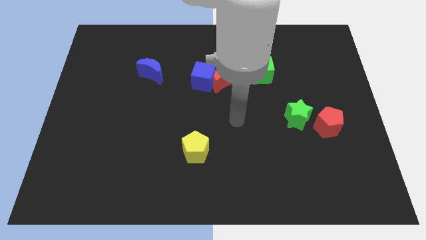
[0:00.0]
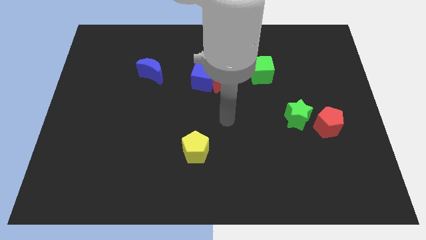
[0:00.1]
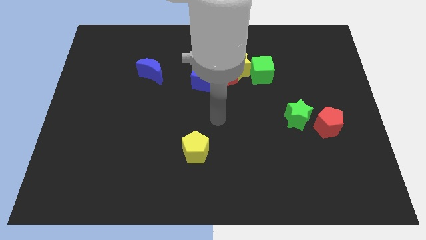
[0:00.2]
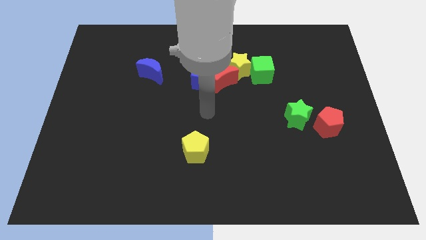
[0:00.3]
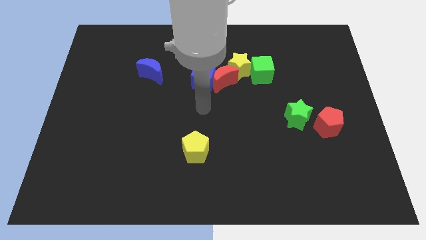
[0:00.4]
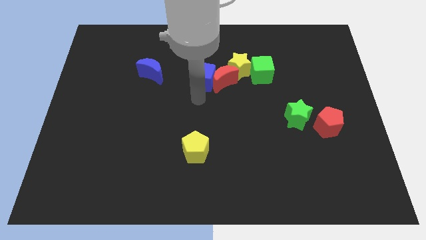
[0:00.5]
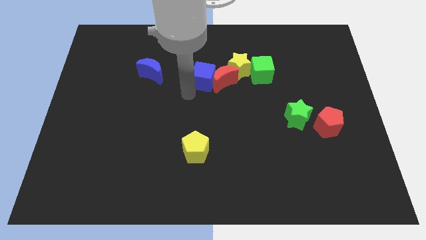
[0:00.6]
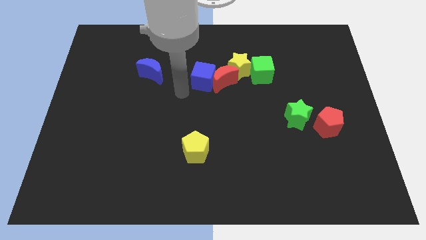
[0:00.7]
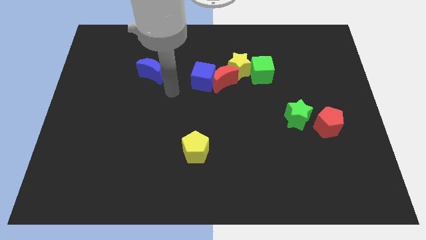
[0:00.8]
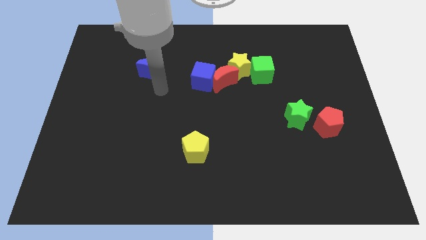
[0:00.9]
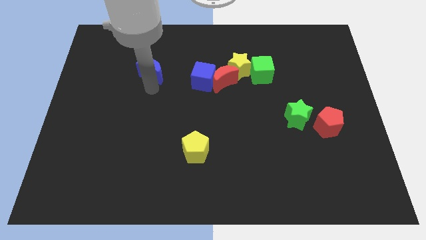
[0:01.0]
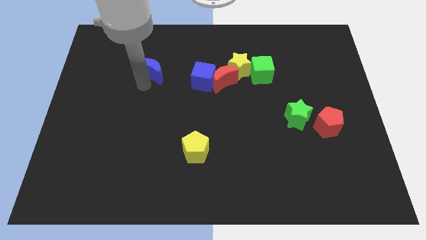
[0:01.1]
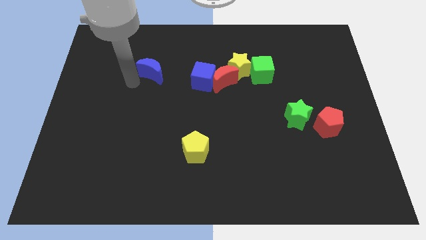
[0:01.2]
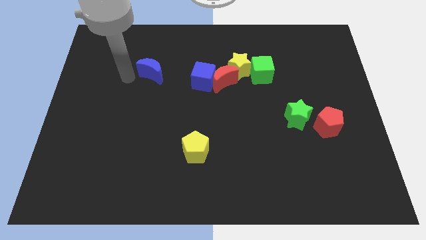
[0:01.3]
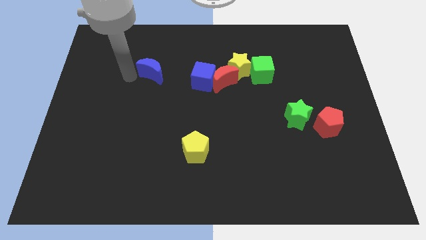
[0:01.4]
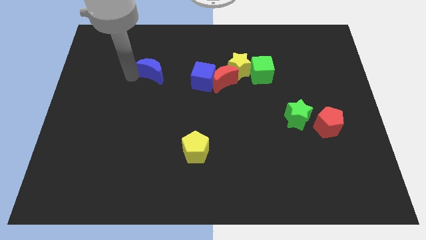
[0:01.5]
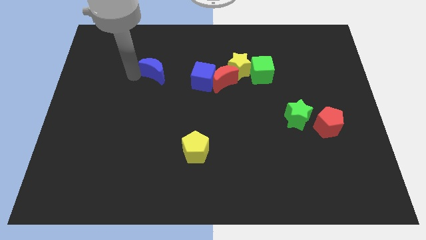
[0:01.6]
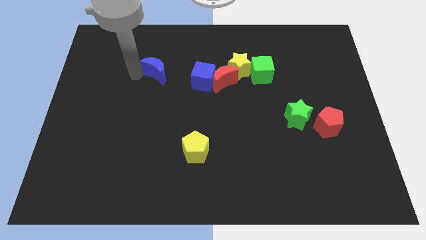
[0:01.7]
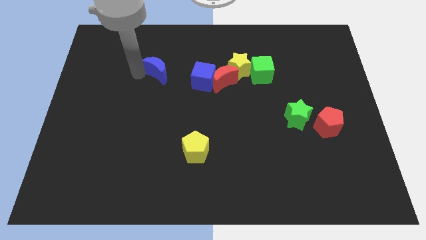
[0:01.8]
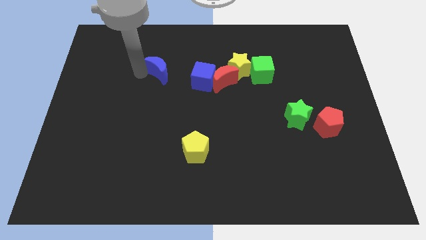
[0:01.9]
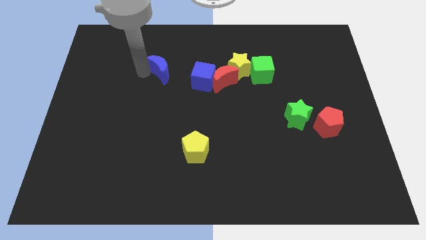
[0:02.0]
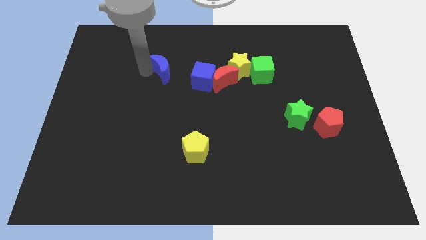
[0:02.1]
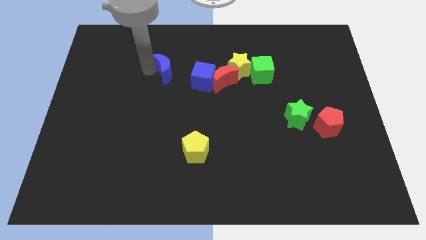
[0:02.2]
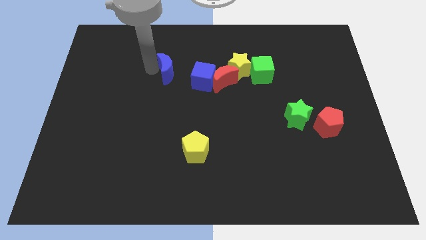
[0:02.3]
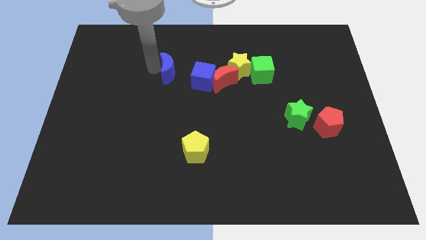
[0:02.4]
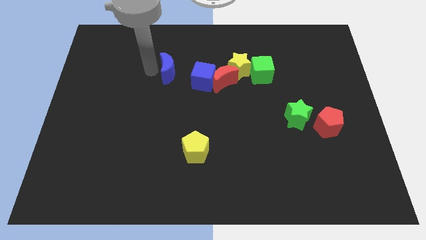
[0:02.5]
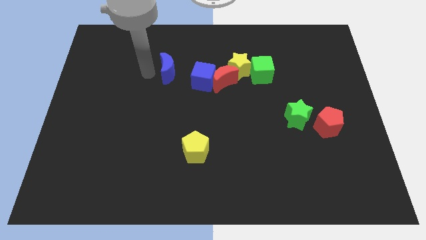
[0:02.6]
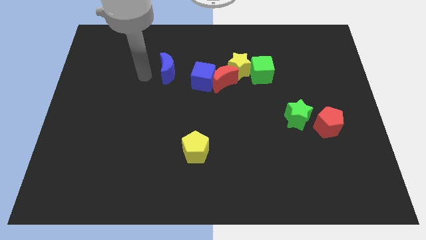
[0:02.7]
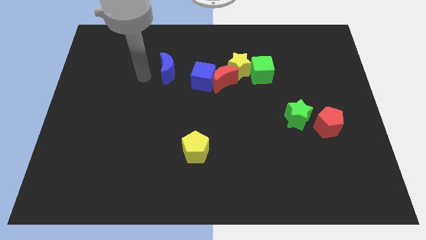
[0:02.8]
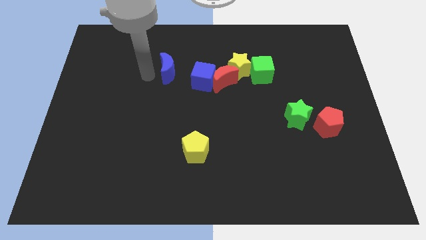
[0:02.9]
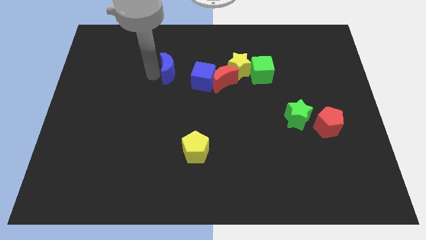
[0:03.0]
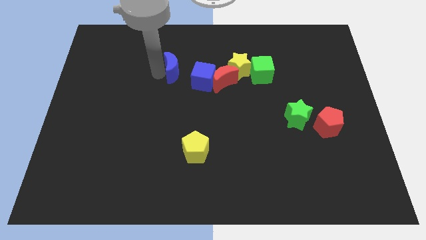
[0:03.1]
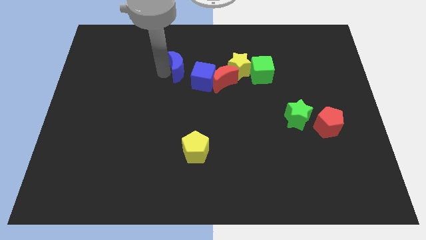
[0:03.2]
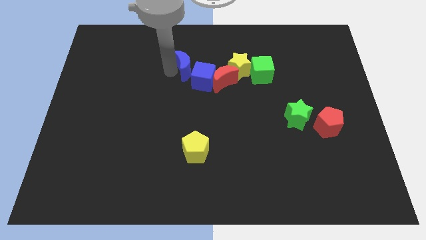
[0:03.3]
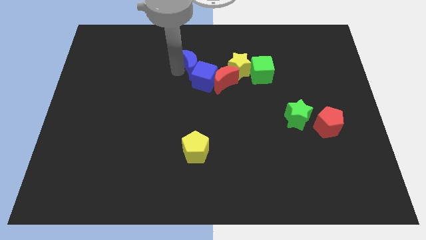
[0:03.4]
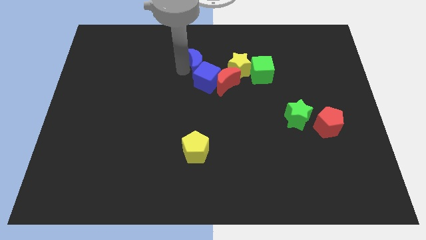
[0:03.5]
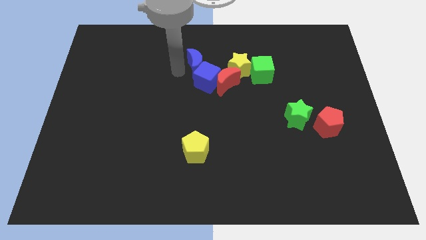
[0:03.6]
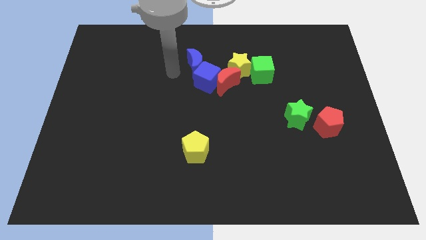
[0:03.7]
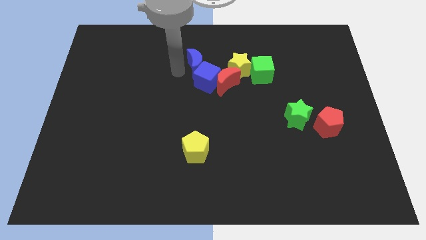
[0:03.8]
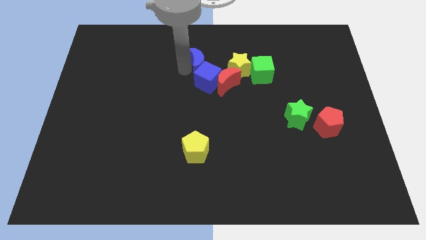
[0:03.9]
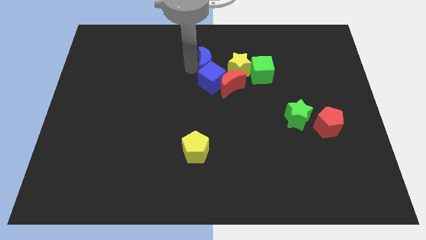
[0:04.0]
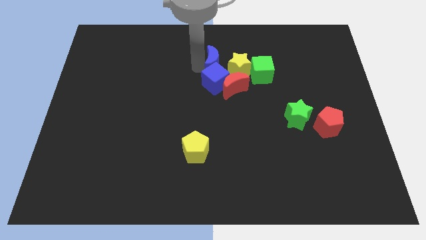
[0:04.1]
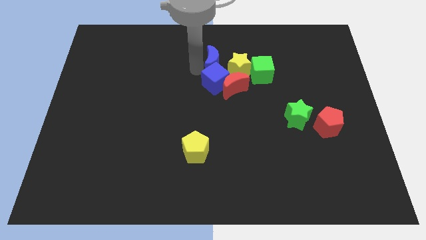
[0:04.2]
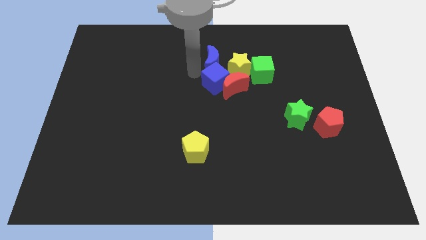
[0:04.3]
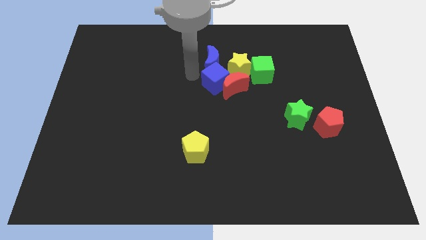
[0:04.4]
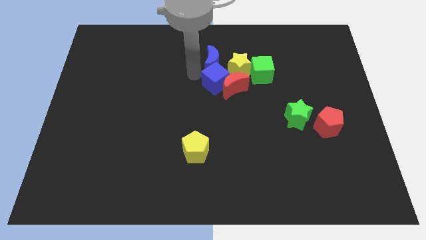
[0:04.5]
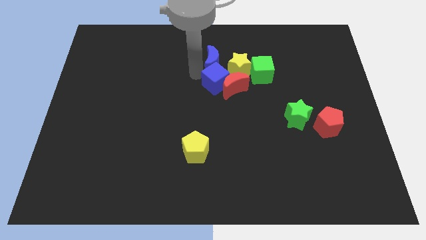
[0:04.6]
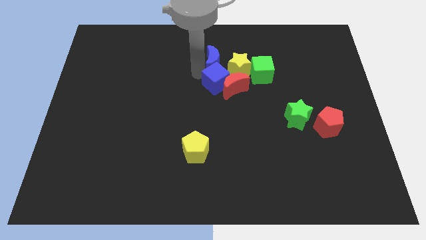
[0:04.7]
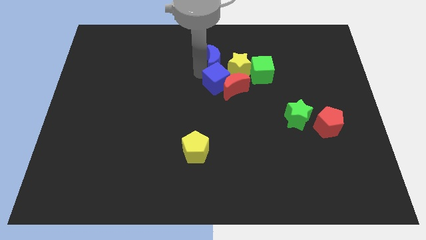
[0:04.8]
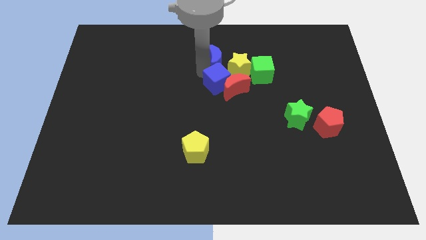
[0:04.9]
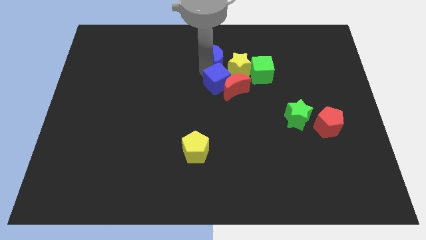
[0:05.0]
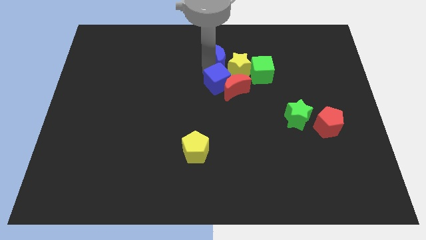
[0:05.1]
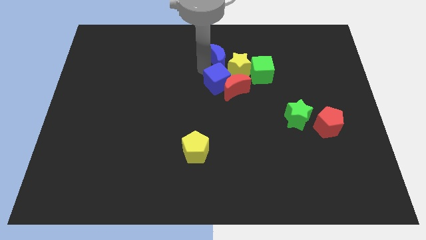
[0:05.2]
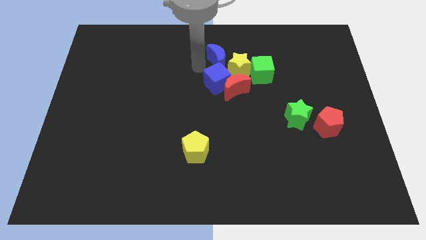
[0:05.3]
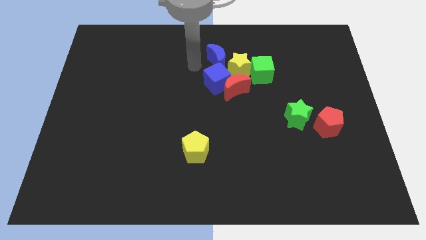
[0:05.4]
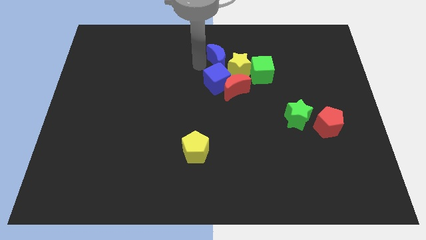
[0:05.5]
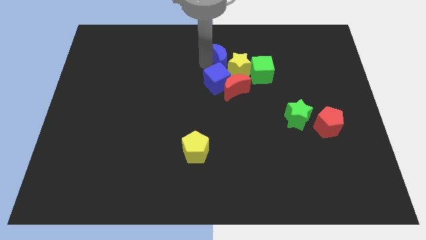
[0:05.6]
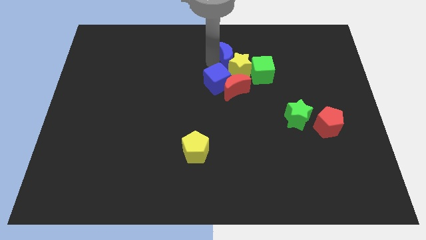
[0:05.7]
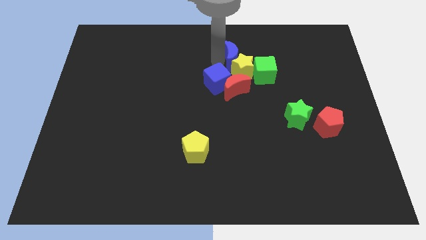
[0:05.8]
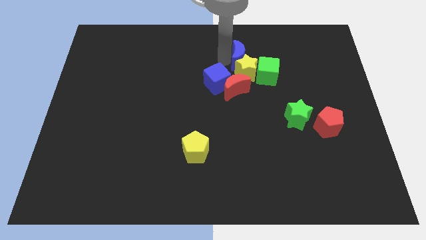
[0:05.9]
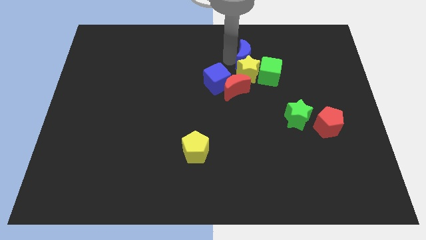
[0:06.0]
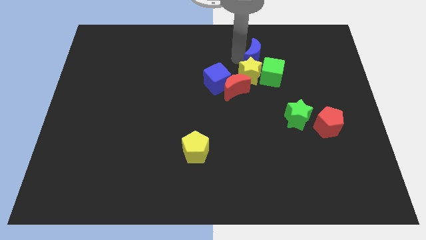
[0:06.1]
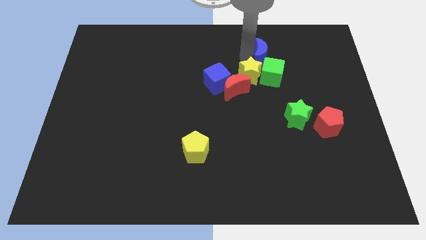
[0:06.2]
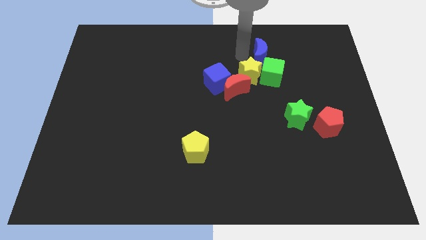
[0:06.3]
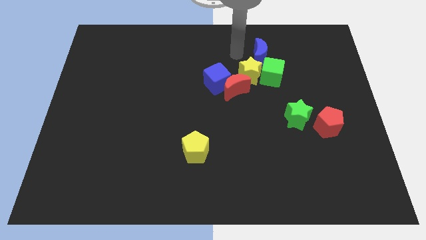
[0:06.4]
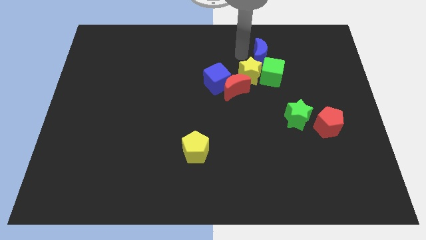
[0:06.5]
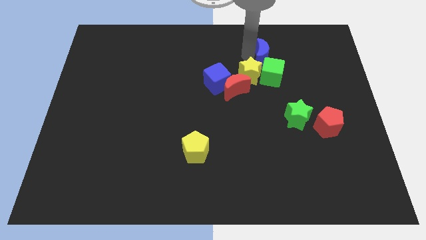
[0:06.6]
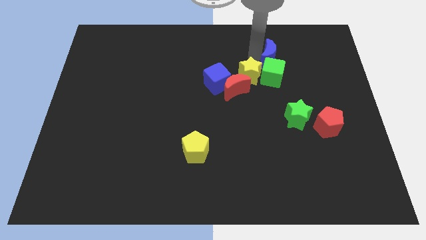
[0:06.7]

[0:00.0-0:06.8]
slide the blue moon diagonally up and to the right of the green cube
